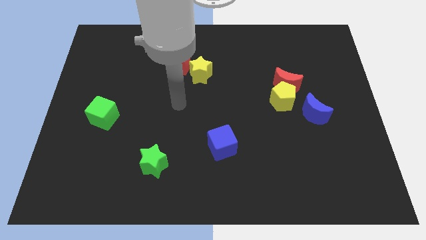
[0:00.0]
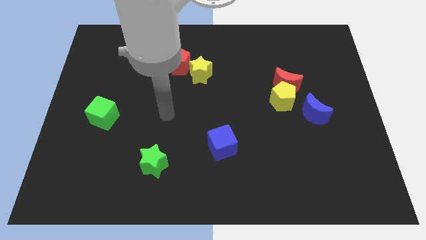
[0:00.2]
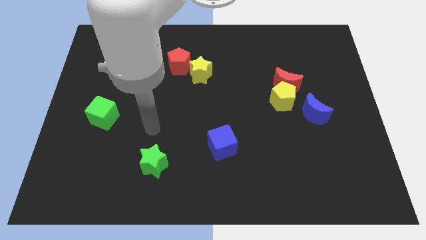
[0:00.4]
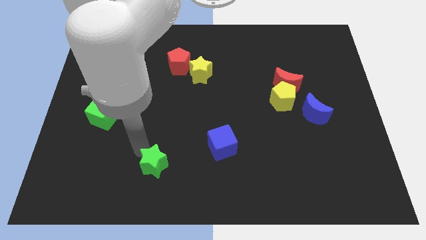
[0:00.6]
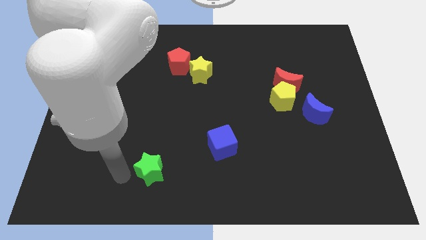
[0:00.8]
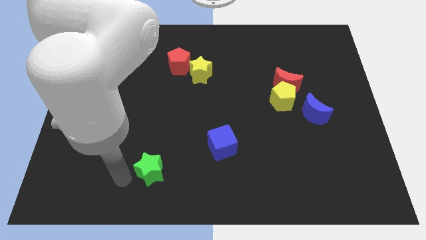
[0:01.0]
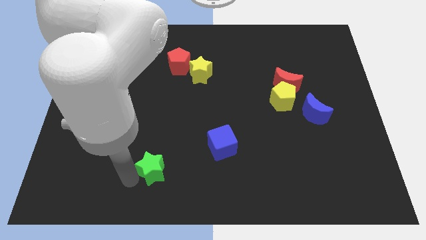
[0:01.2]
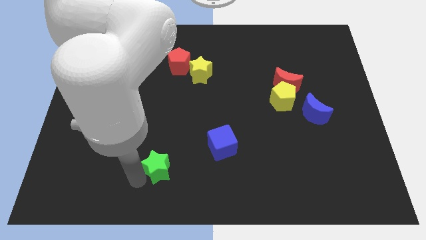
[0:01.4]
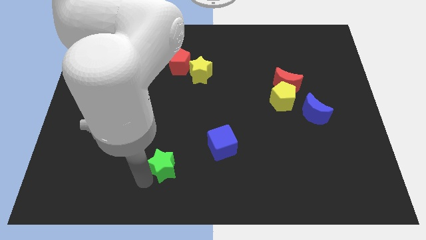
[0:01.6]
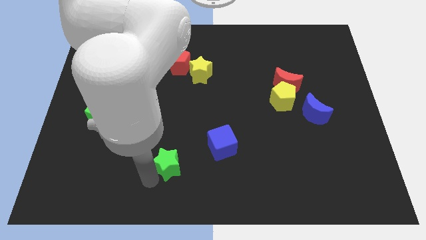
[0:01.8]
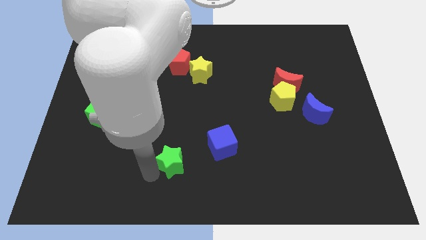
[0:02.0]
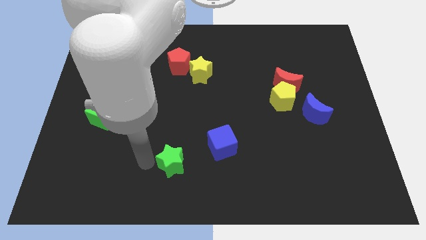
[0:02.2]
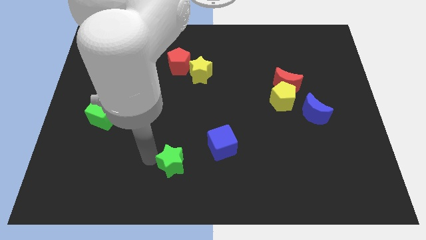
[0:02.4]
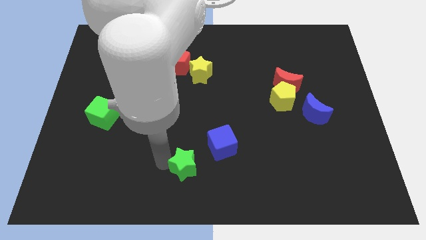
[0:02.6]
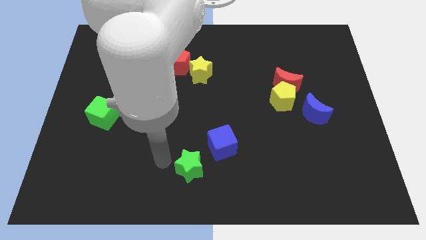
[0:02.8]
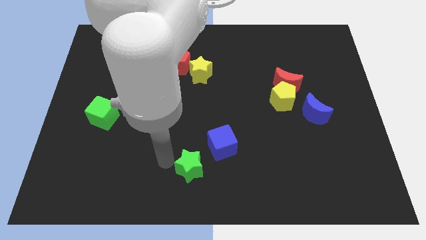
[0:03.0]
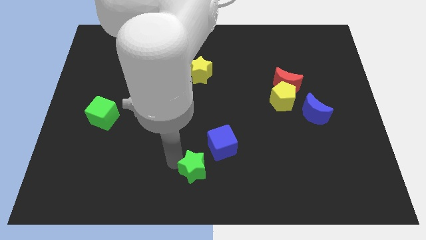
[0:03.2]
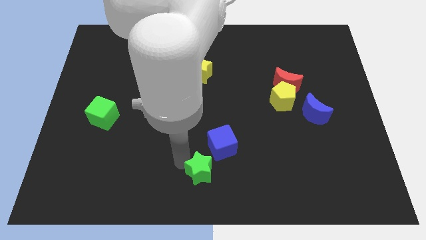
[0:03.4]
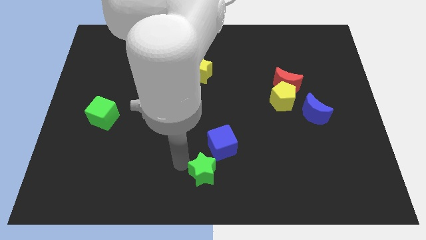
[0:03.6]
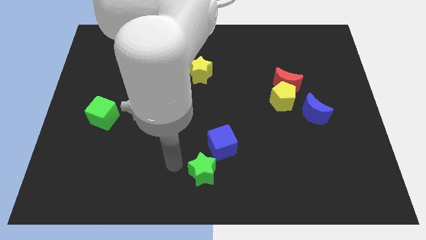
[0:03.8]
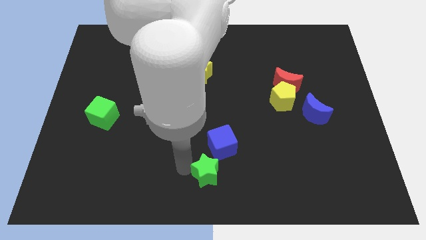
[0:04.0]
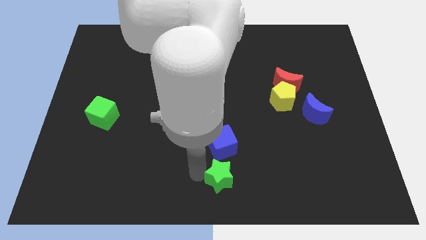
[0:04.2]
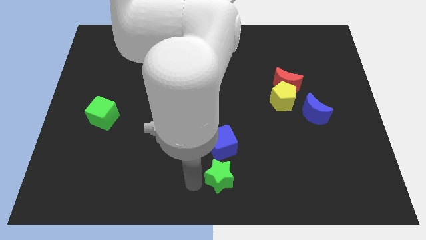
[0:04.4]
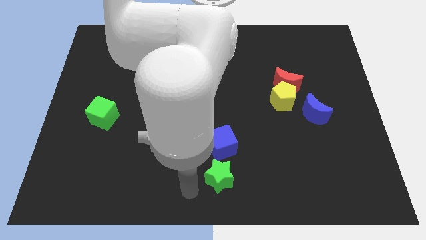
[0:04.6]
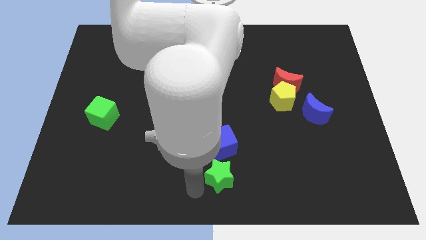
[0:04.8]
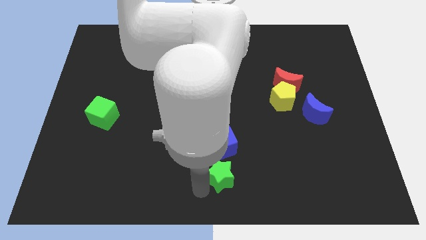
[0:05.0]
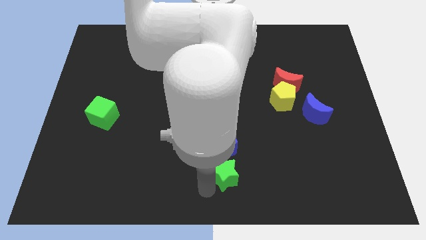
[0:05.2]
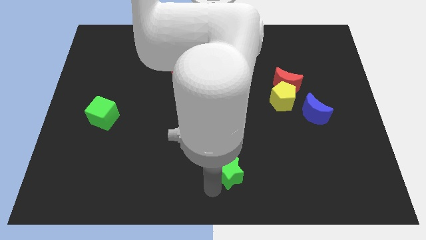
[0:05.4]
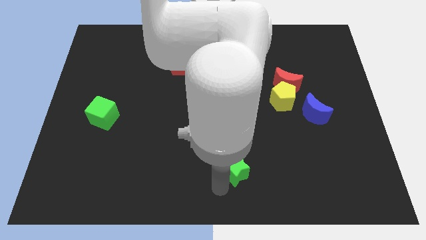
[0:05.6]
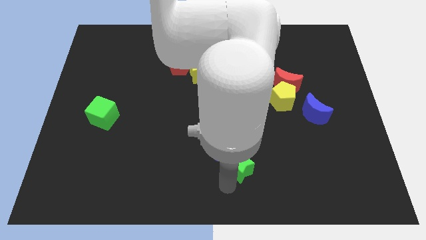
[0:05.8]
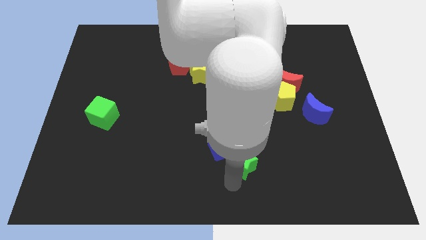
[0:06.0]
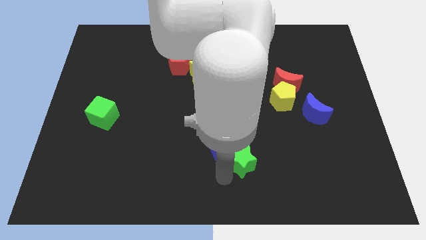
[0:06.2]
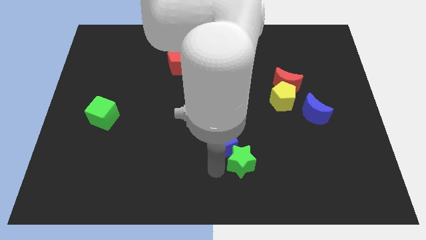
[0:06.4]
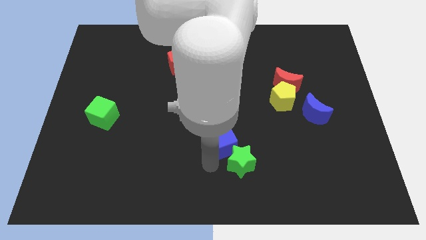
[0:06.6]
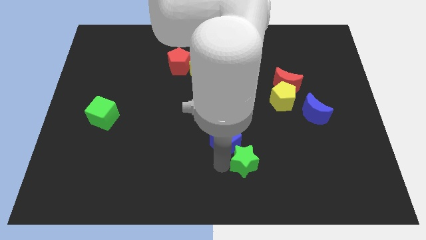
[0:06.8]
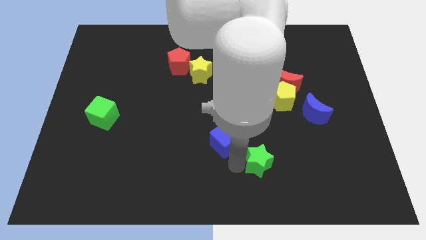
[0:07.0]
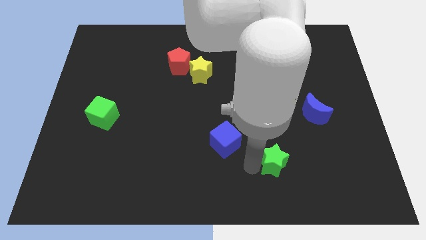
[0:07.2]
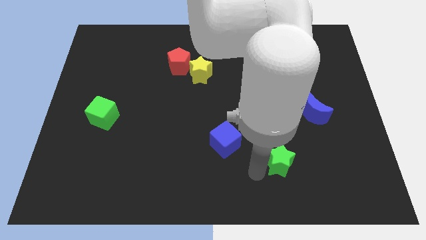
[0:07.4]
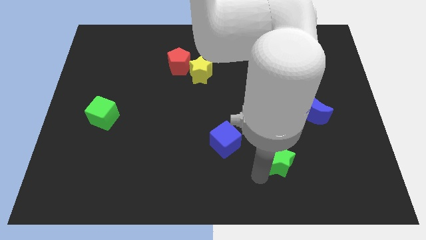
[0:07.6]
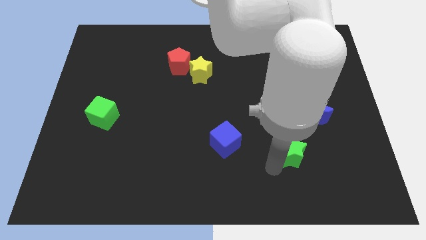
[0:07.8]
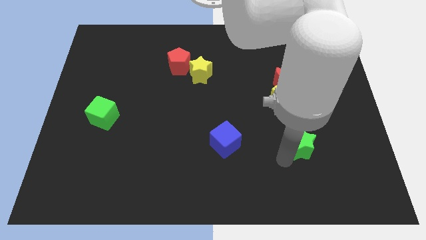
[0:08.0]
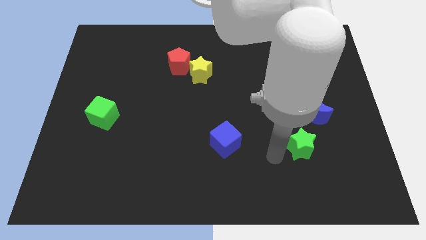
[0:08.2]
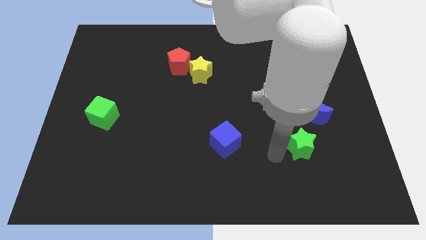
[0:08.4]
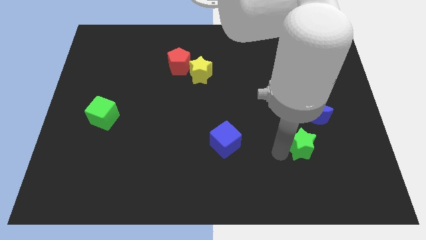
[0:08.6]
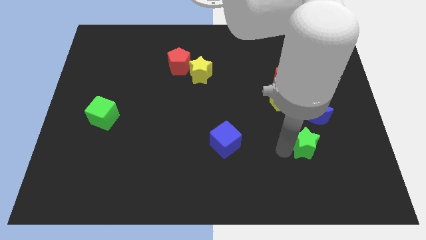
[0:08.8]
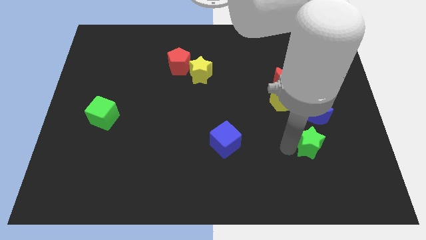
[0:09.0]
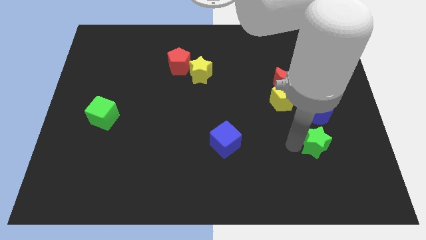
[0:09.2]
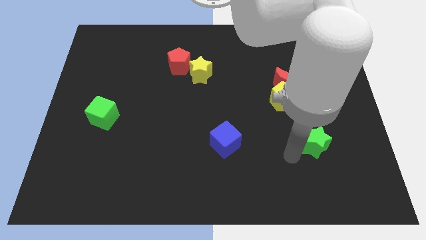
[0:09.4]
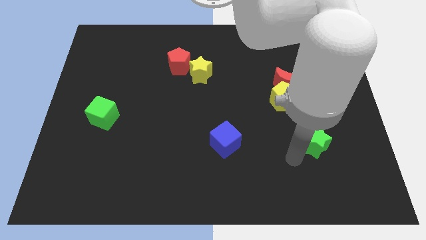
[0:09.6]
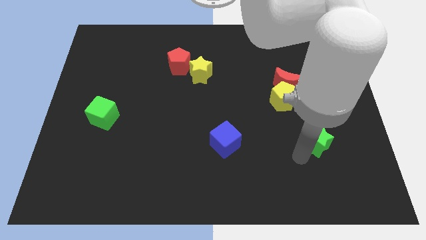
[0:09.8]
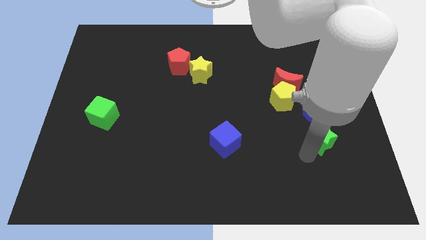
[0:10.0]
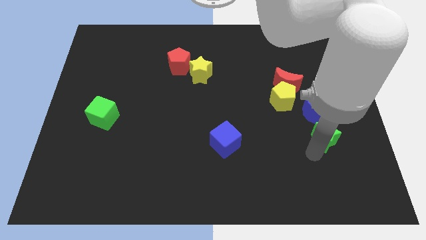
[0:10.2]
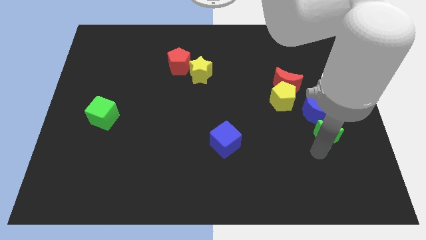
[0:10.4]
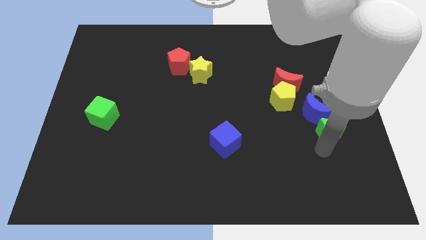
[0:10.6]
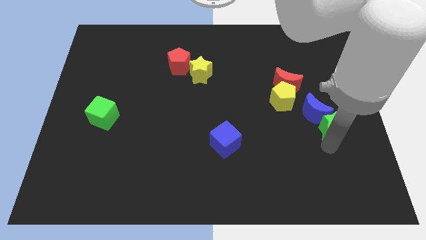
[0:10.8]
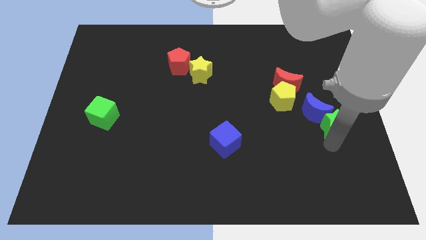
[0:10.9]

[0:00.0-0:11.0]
put the green star to the center right
